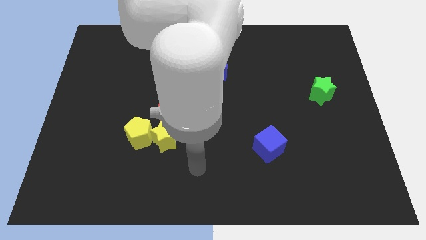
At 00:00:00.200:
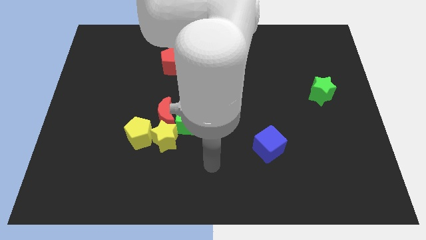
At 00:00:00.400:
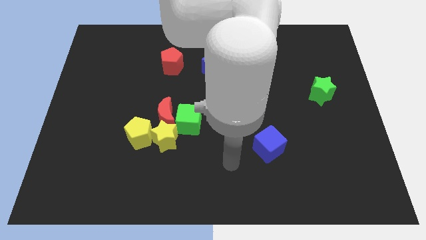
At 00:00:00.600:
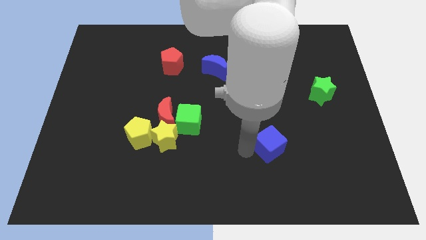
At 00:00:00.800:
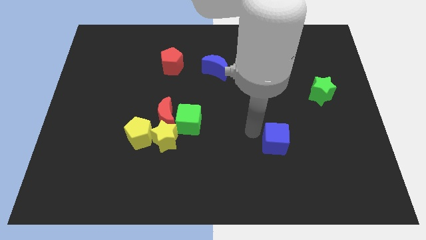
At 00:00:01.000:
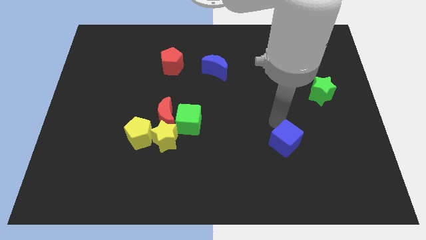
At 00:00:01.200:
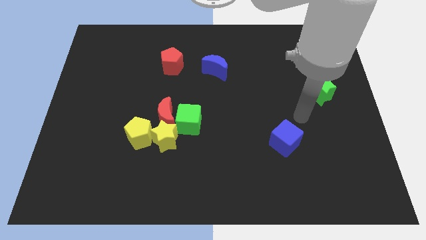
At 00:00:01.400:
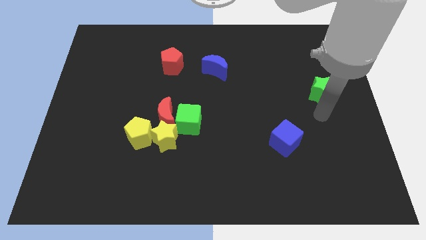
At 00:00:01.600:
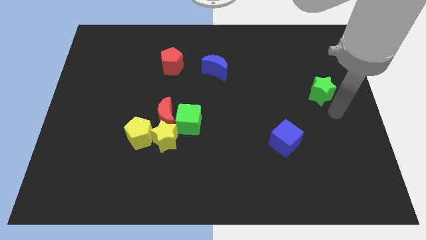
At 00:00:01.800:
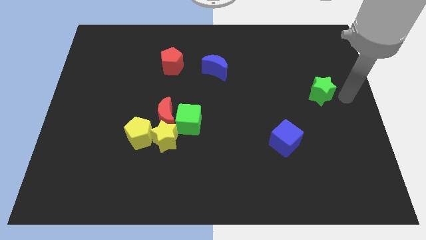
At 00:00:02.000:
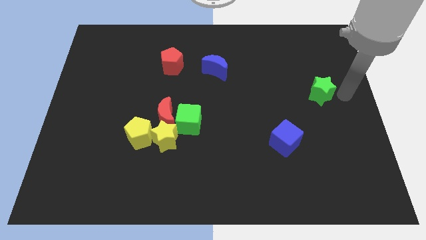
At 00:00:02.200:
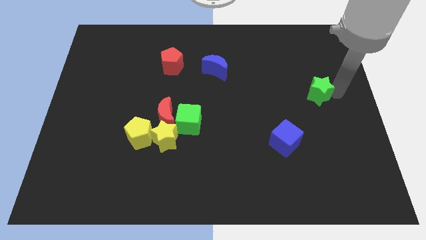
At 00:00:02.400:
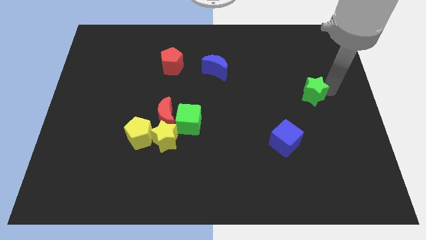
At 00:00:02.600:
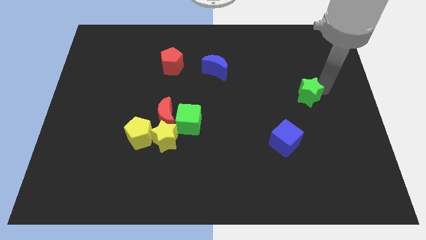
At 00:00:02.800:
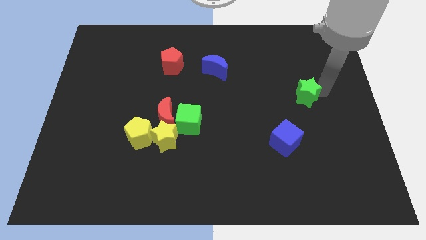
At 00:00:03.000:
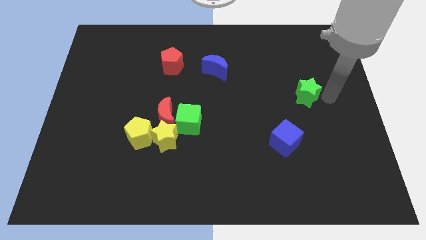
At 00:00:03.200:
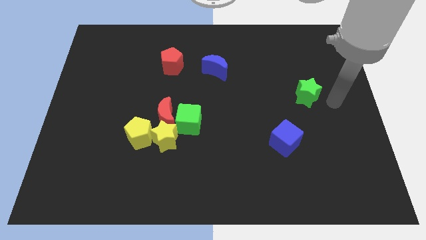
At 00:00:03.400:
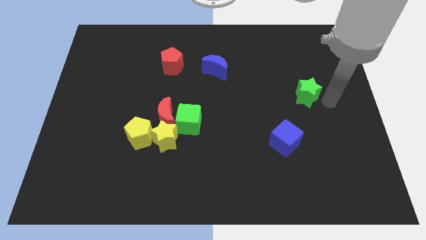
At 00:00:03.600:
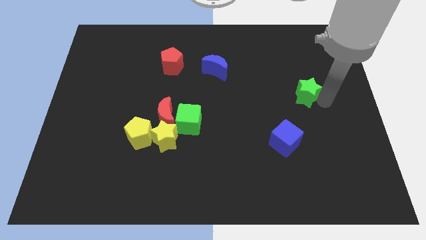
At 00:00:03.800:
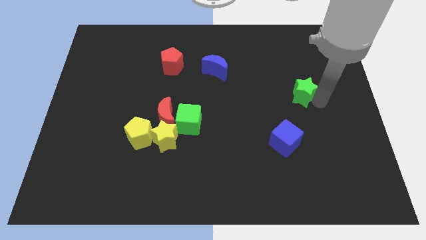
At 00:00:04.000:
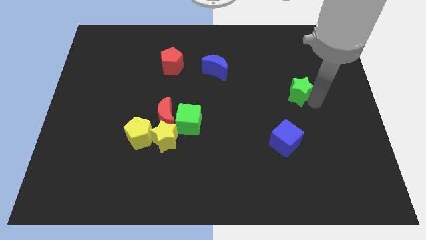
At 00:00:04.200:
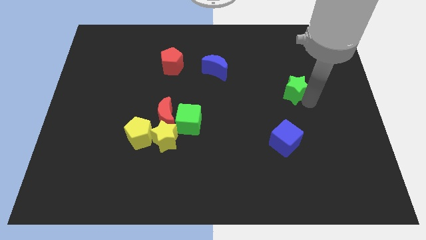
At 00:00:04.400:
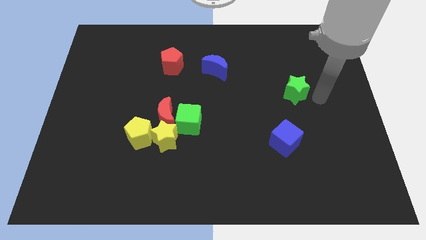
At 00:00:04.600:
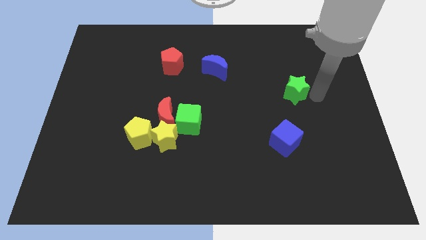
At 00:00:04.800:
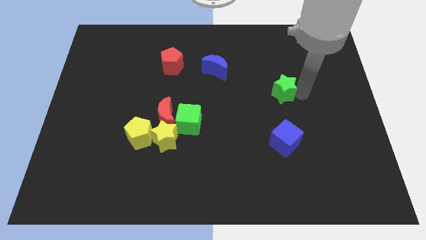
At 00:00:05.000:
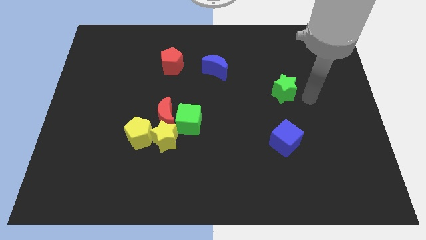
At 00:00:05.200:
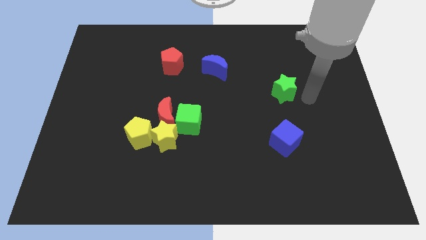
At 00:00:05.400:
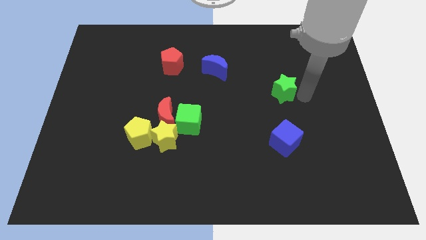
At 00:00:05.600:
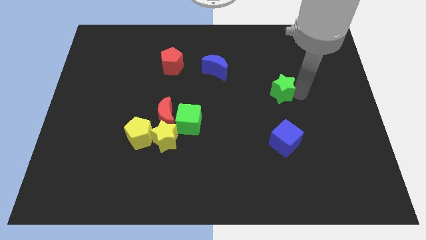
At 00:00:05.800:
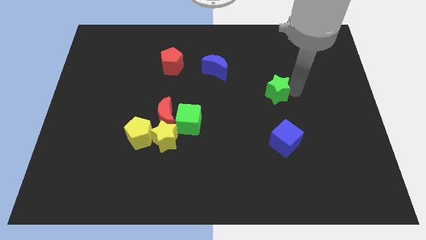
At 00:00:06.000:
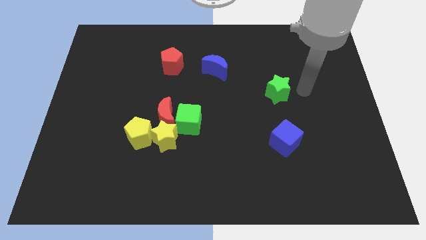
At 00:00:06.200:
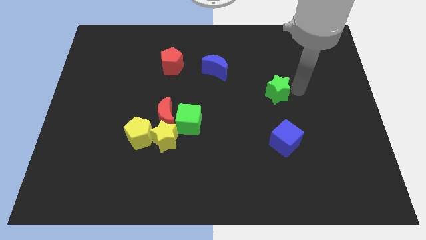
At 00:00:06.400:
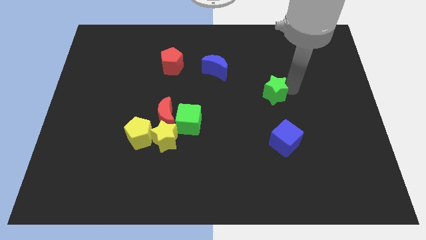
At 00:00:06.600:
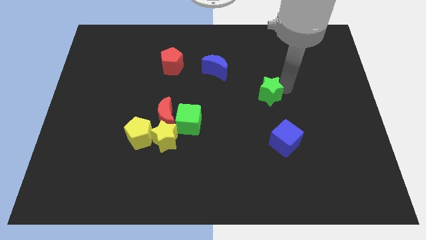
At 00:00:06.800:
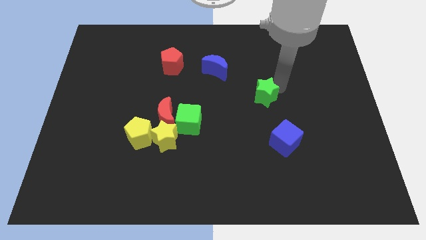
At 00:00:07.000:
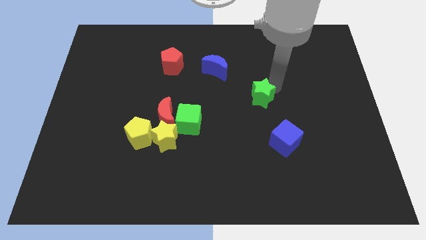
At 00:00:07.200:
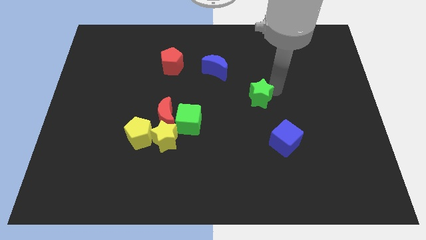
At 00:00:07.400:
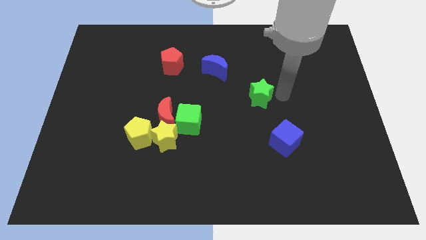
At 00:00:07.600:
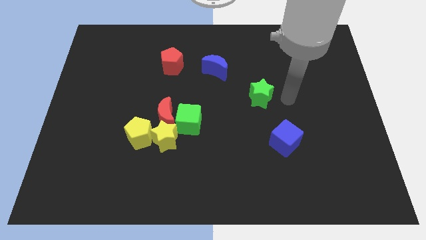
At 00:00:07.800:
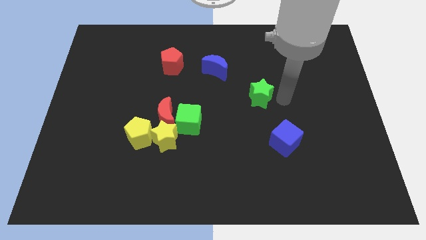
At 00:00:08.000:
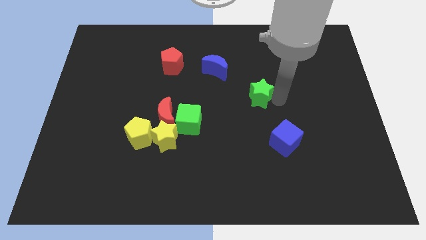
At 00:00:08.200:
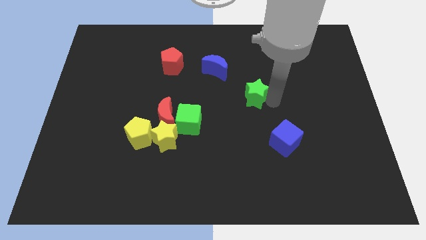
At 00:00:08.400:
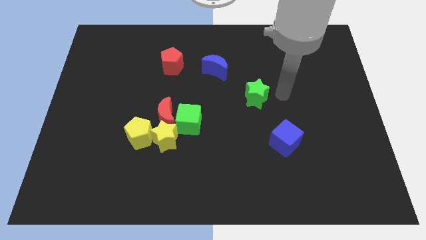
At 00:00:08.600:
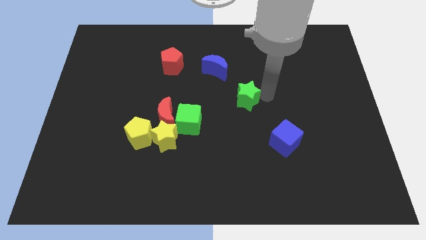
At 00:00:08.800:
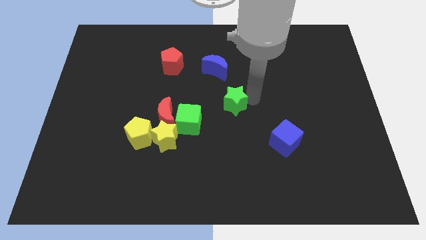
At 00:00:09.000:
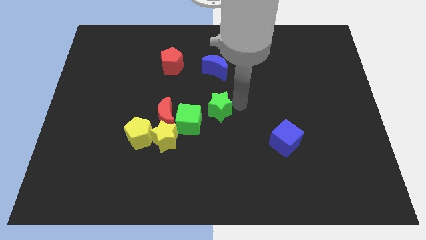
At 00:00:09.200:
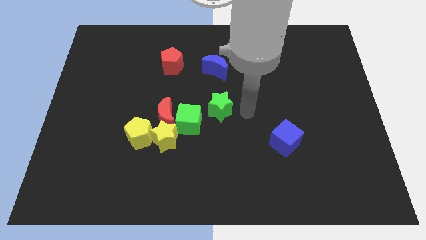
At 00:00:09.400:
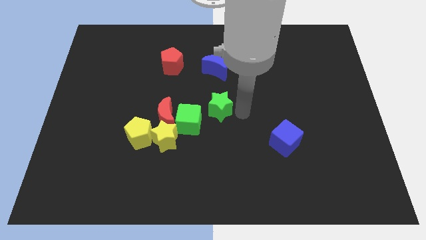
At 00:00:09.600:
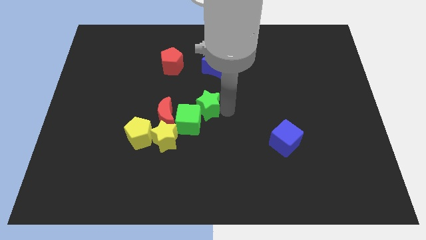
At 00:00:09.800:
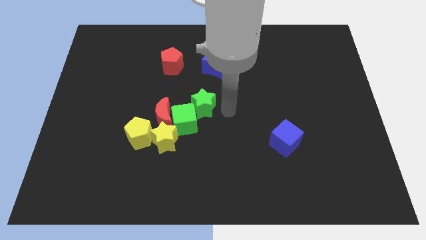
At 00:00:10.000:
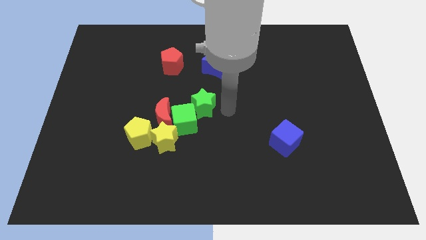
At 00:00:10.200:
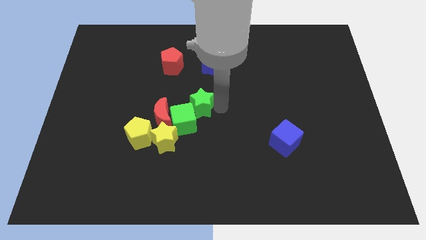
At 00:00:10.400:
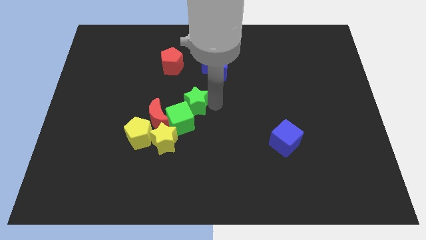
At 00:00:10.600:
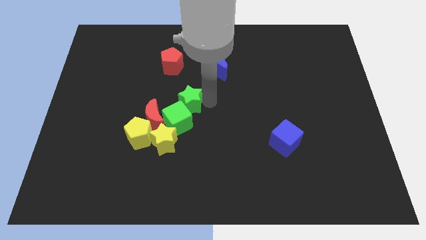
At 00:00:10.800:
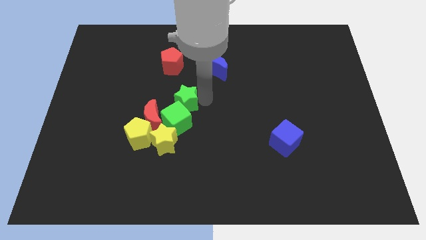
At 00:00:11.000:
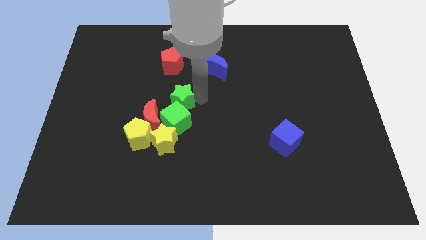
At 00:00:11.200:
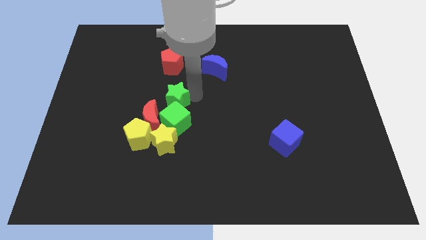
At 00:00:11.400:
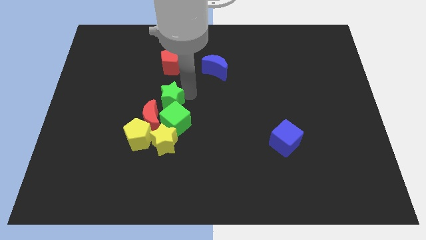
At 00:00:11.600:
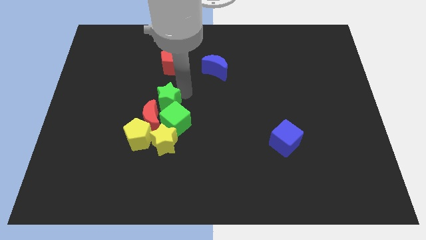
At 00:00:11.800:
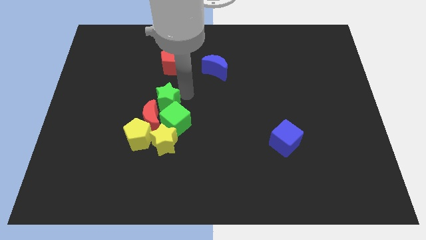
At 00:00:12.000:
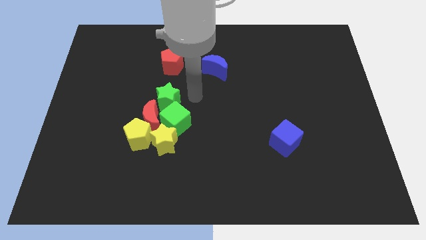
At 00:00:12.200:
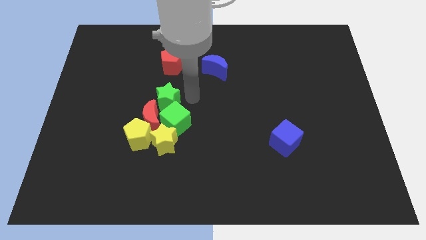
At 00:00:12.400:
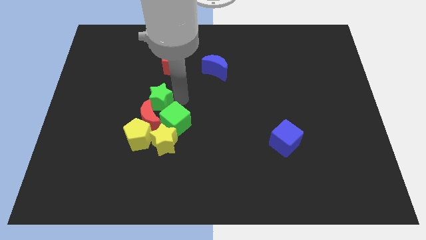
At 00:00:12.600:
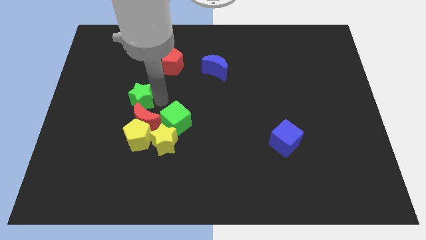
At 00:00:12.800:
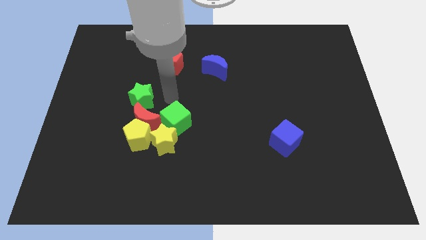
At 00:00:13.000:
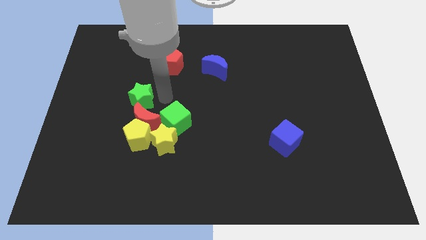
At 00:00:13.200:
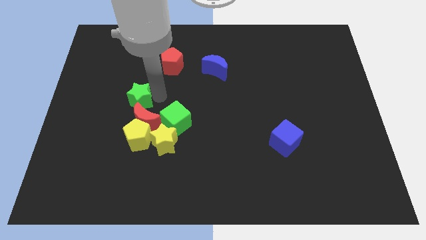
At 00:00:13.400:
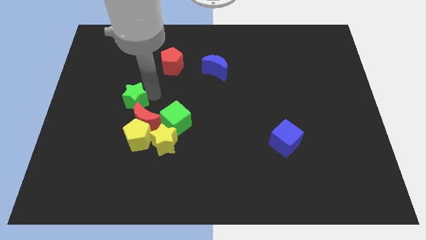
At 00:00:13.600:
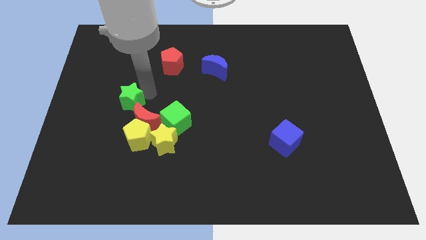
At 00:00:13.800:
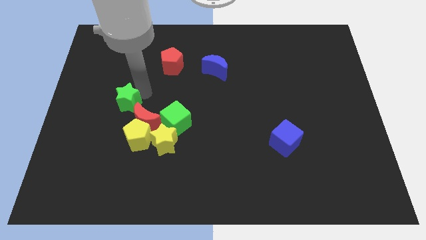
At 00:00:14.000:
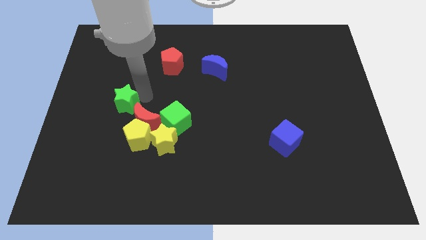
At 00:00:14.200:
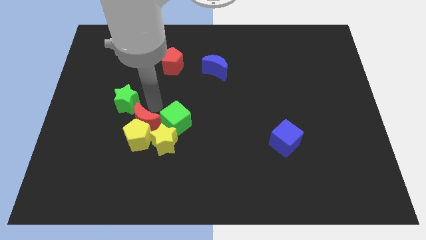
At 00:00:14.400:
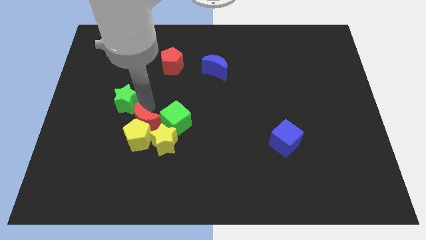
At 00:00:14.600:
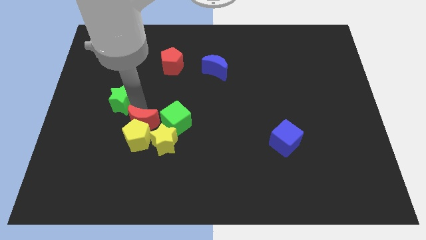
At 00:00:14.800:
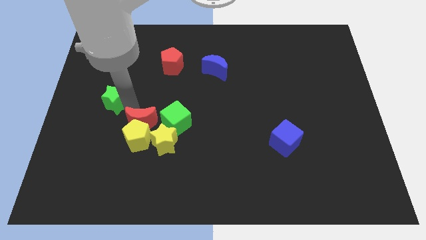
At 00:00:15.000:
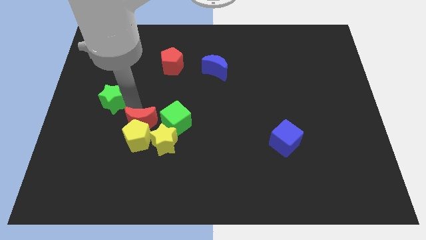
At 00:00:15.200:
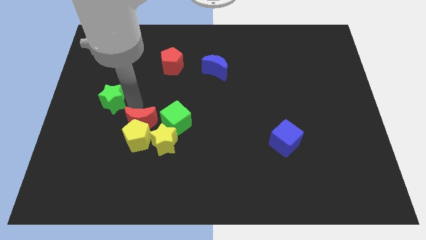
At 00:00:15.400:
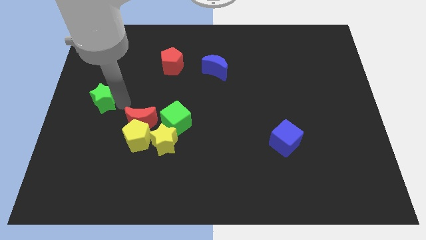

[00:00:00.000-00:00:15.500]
move the green star to the left side
